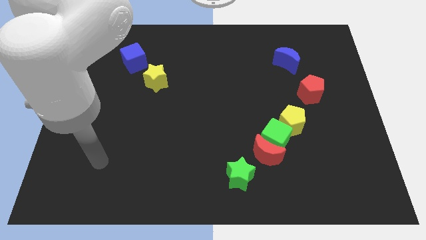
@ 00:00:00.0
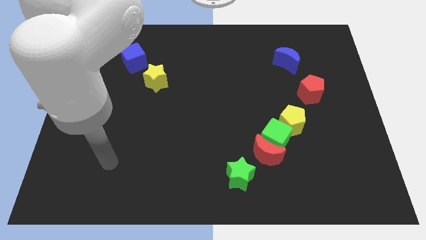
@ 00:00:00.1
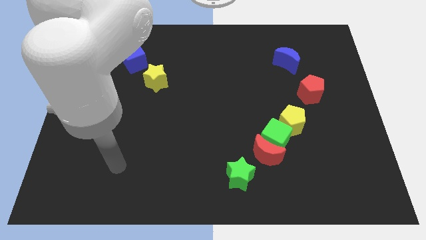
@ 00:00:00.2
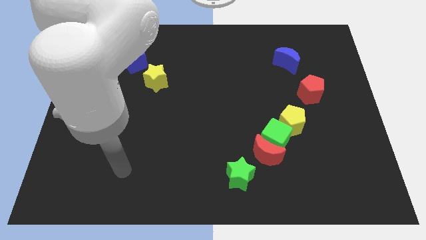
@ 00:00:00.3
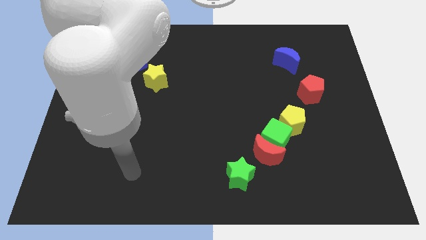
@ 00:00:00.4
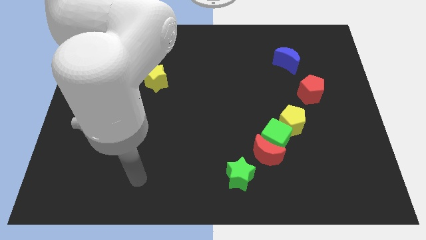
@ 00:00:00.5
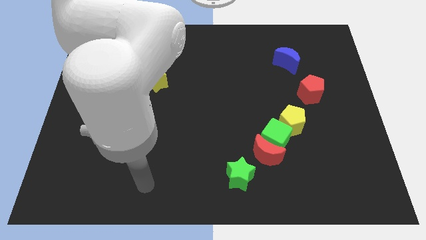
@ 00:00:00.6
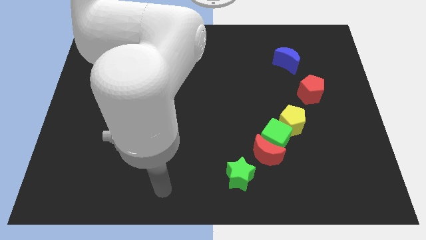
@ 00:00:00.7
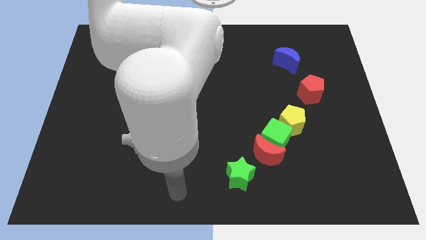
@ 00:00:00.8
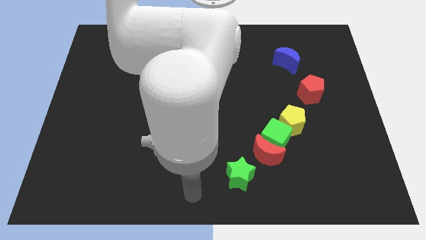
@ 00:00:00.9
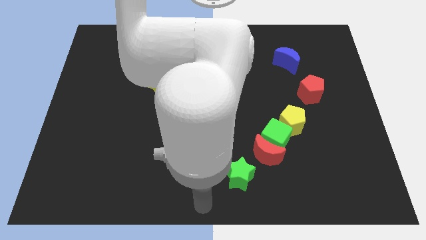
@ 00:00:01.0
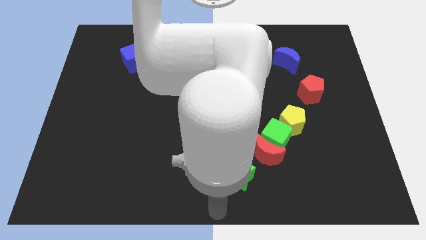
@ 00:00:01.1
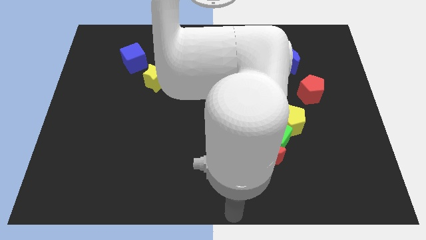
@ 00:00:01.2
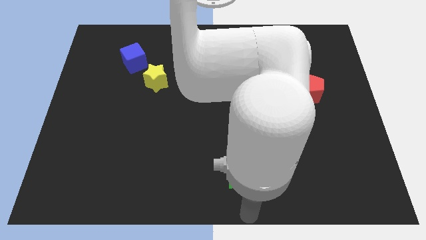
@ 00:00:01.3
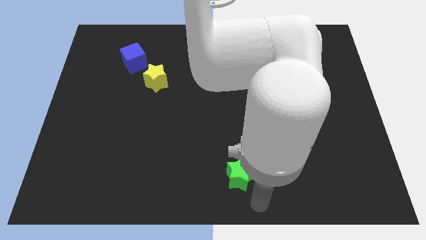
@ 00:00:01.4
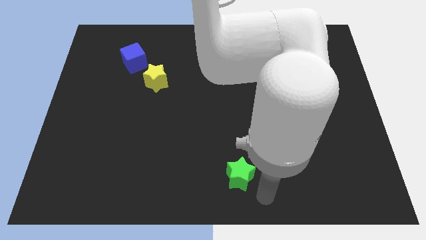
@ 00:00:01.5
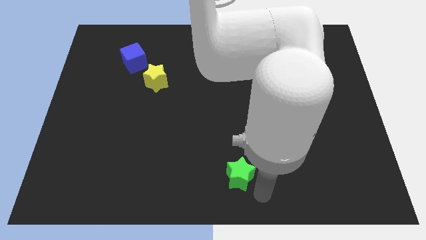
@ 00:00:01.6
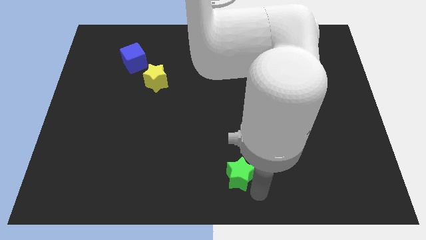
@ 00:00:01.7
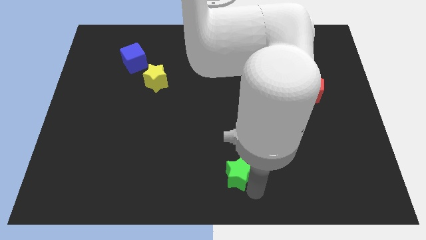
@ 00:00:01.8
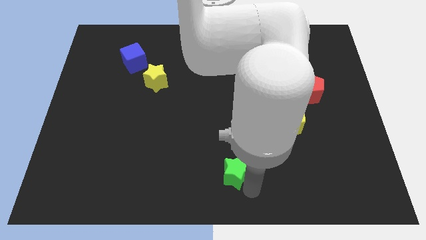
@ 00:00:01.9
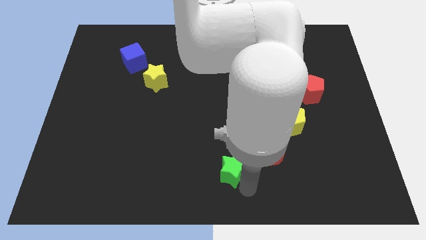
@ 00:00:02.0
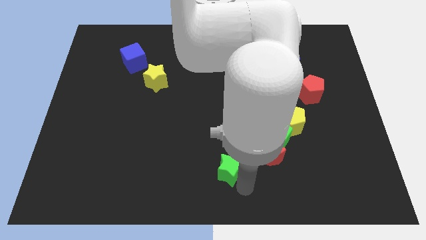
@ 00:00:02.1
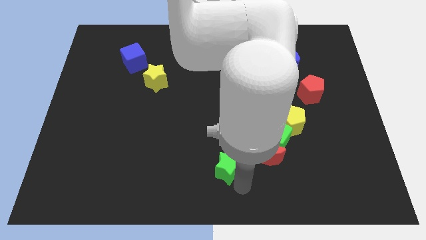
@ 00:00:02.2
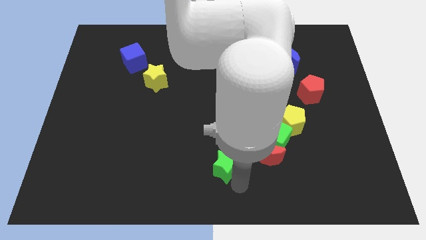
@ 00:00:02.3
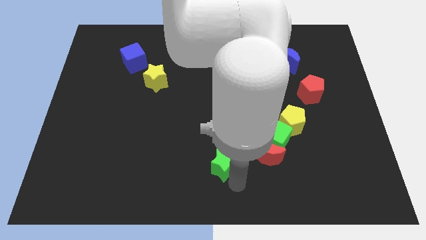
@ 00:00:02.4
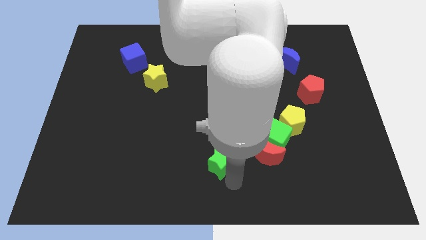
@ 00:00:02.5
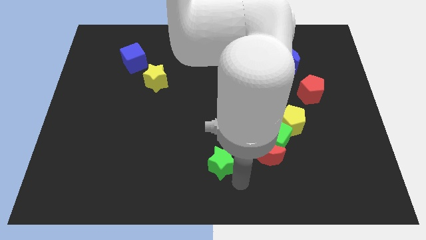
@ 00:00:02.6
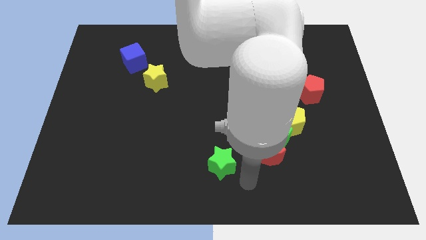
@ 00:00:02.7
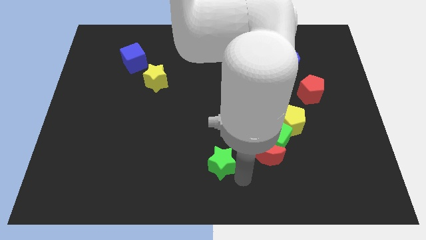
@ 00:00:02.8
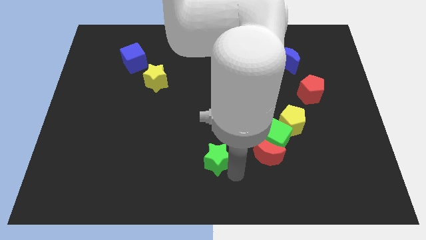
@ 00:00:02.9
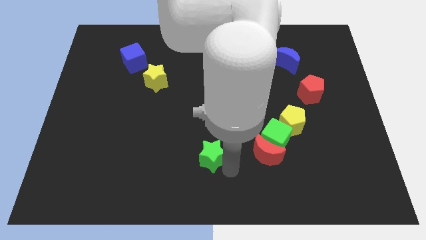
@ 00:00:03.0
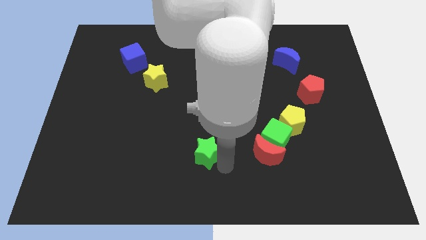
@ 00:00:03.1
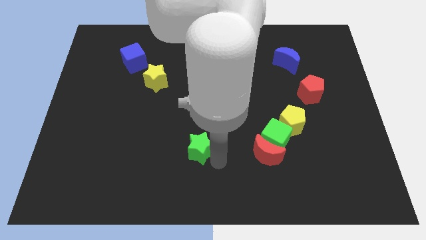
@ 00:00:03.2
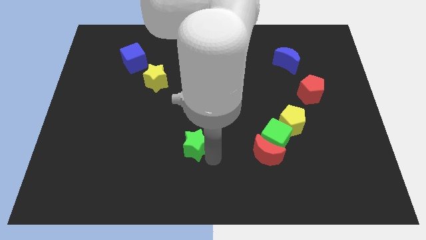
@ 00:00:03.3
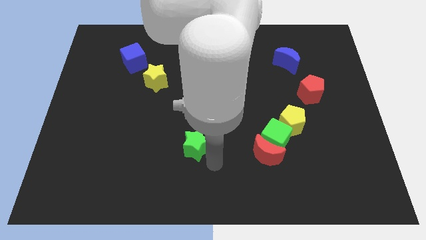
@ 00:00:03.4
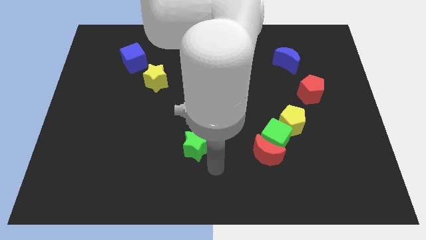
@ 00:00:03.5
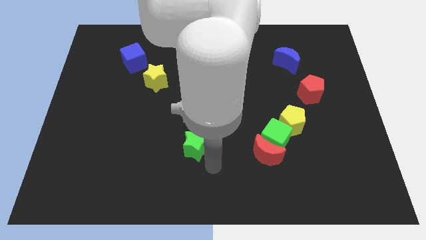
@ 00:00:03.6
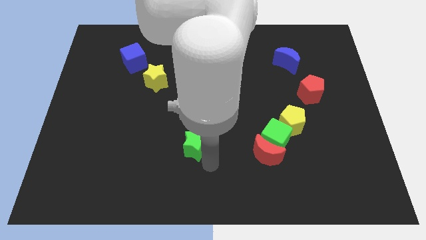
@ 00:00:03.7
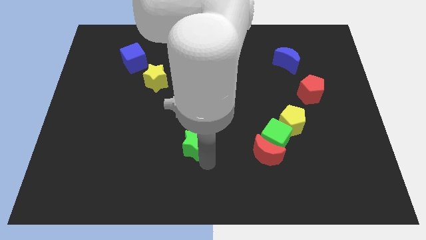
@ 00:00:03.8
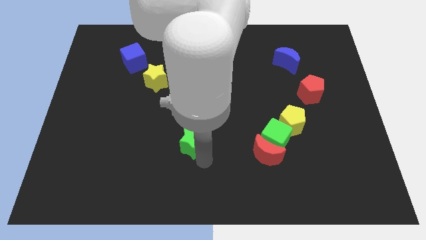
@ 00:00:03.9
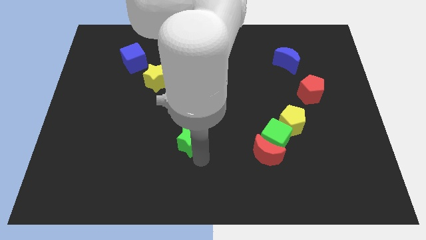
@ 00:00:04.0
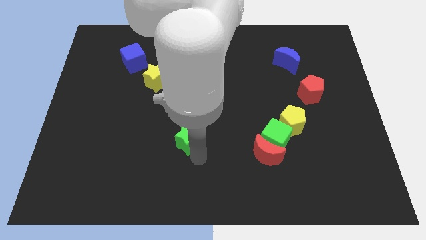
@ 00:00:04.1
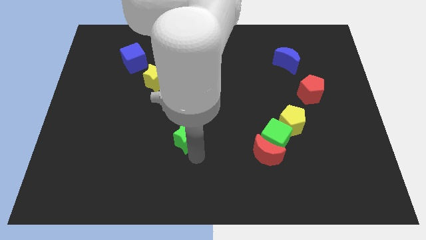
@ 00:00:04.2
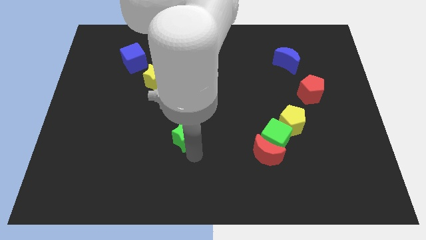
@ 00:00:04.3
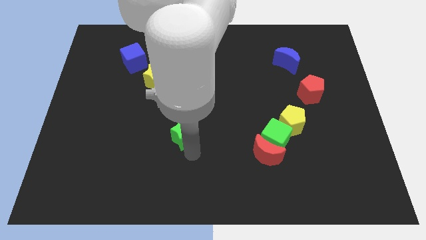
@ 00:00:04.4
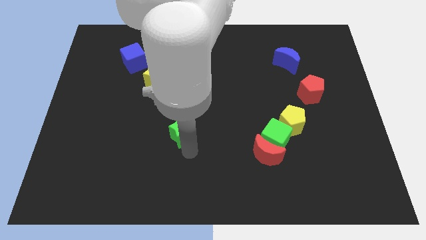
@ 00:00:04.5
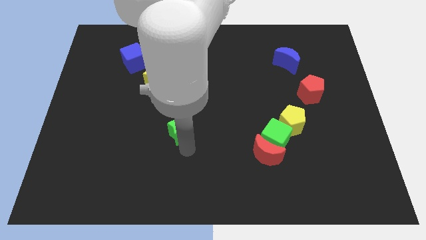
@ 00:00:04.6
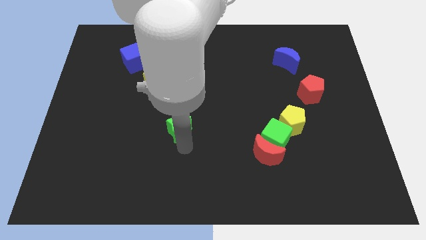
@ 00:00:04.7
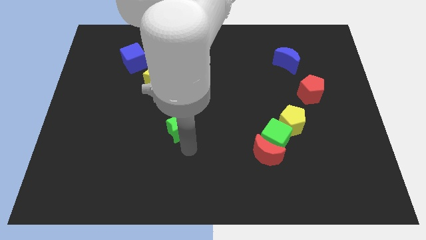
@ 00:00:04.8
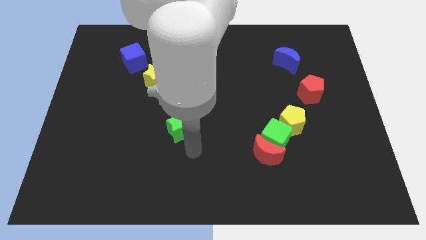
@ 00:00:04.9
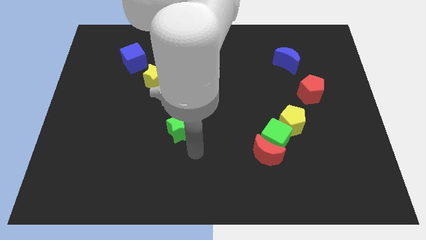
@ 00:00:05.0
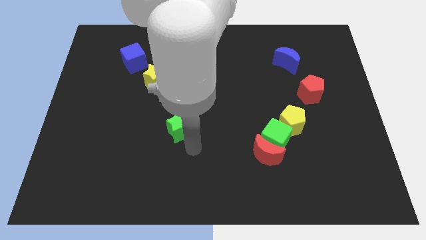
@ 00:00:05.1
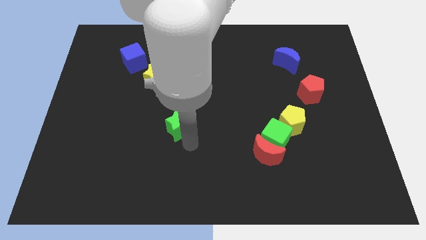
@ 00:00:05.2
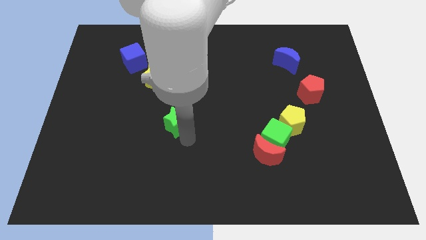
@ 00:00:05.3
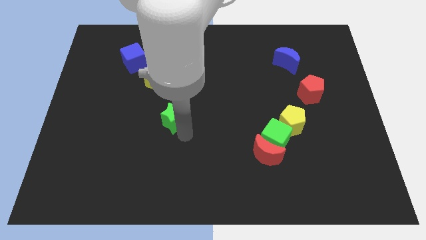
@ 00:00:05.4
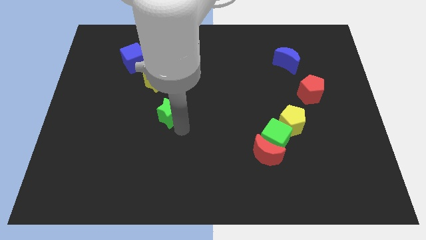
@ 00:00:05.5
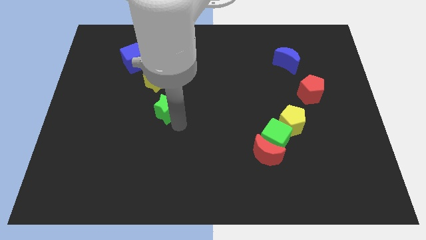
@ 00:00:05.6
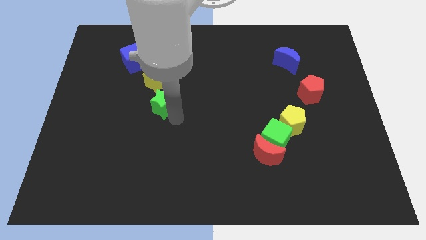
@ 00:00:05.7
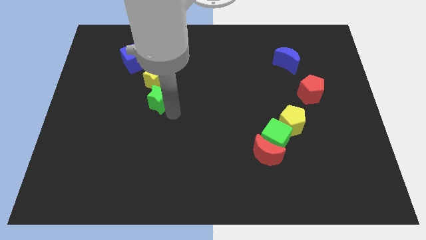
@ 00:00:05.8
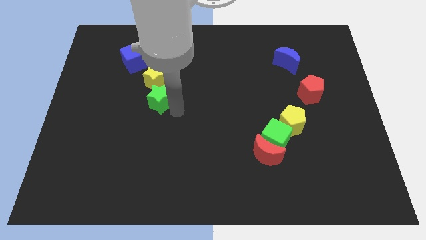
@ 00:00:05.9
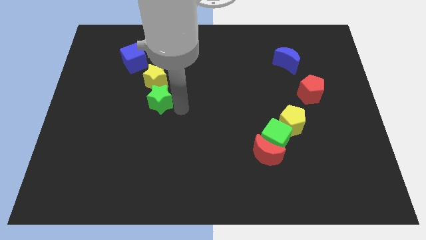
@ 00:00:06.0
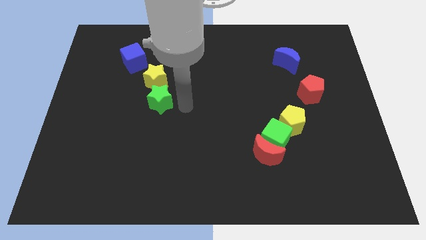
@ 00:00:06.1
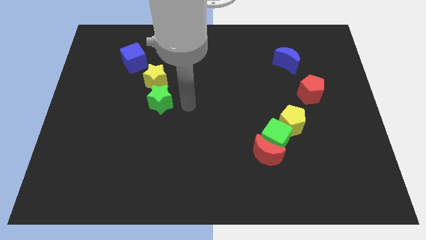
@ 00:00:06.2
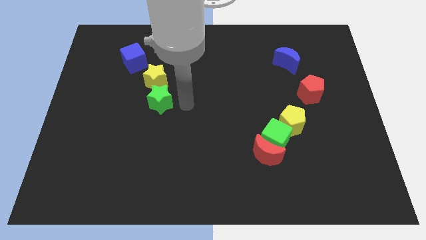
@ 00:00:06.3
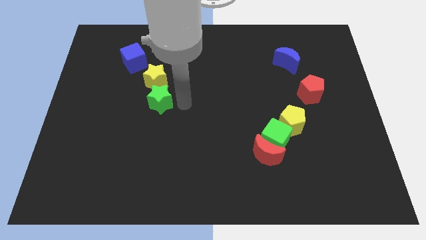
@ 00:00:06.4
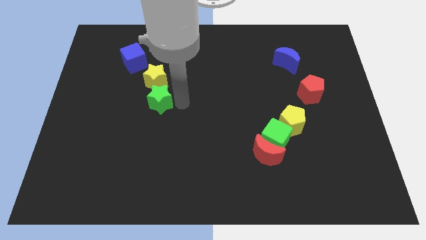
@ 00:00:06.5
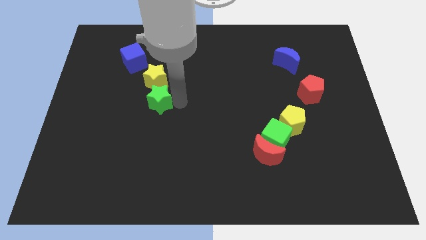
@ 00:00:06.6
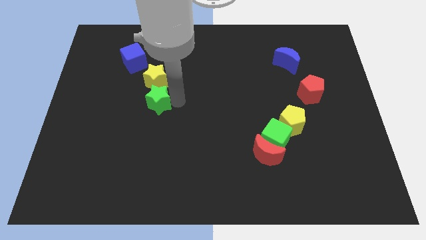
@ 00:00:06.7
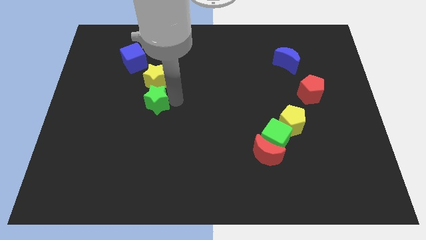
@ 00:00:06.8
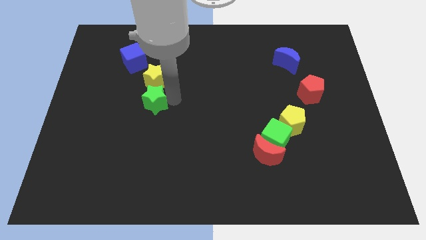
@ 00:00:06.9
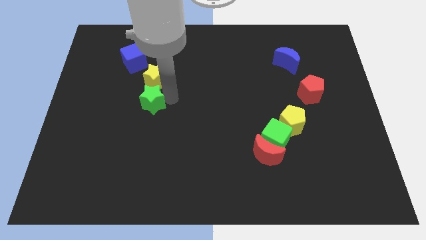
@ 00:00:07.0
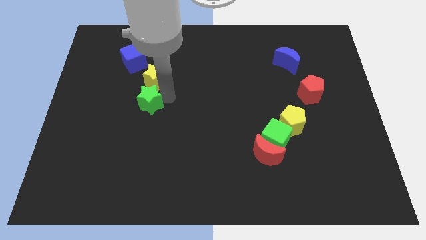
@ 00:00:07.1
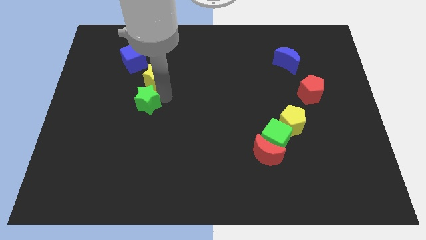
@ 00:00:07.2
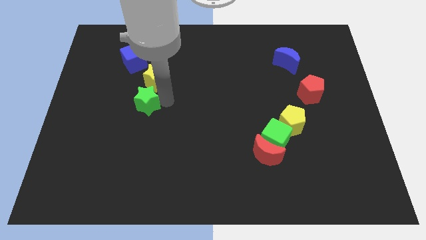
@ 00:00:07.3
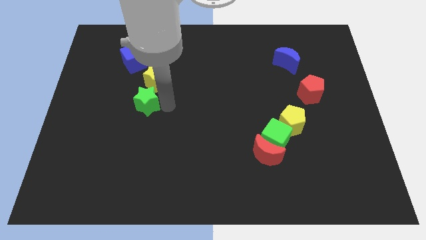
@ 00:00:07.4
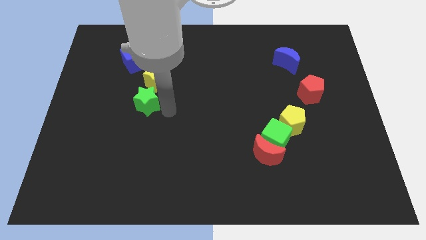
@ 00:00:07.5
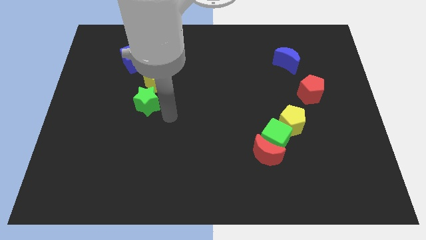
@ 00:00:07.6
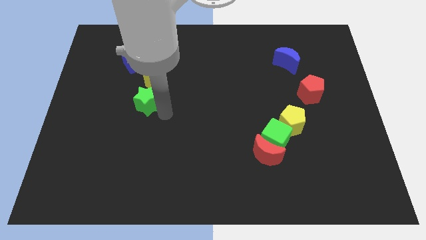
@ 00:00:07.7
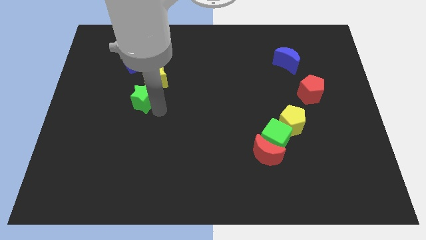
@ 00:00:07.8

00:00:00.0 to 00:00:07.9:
put the green star to the bottom of the blue cube

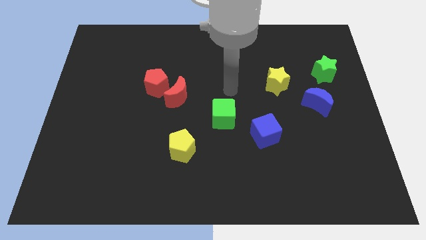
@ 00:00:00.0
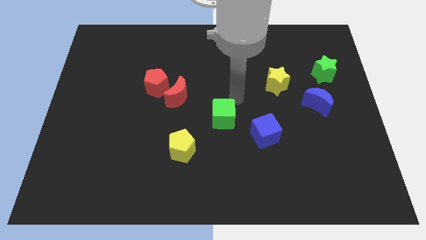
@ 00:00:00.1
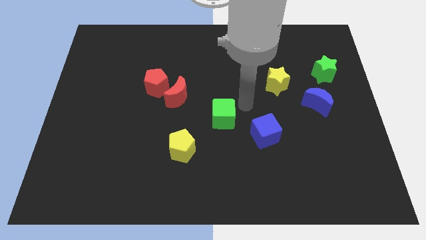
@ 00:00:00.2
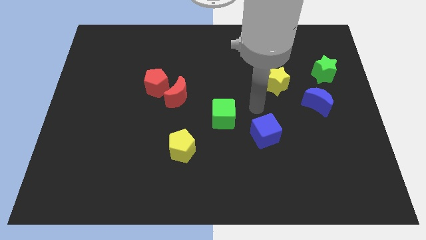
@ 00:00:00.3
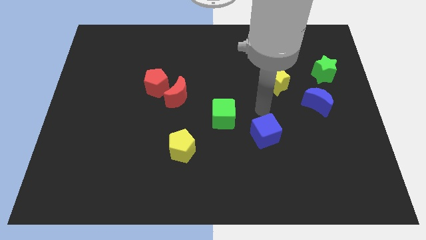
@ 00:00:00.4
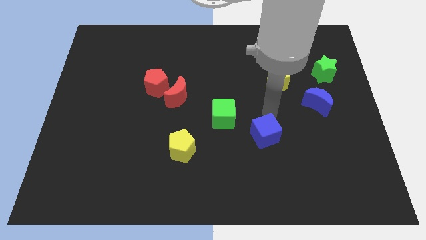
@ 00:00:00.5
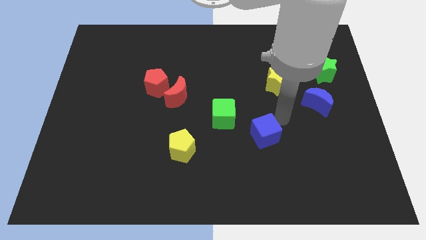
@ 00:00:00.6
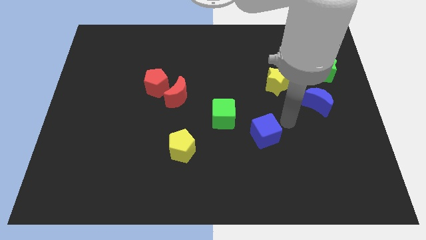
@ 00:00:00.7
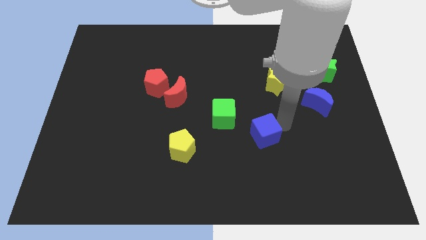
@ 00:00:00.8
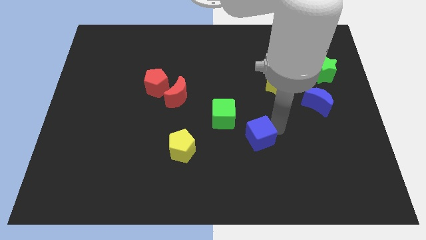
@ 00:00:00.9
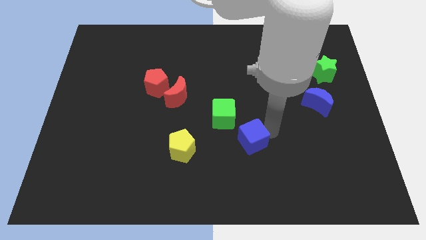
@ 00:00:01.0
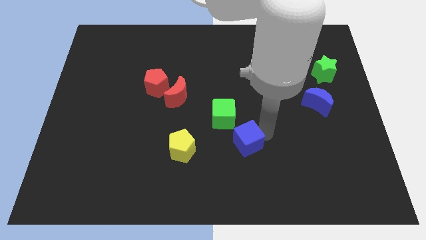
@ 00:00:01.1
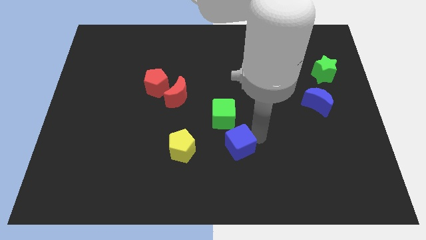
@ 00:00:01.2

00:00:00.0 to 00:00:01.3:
move the blue cube to the bottom of the green cube
